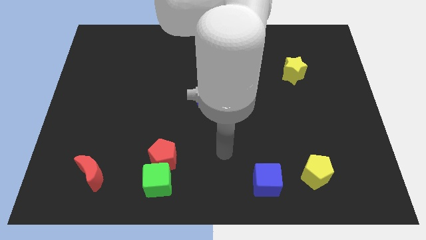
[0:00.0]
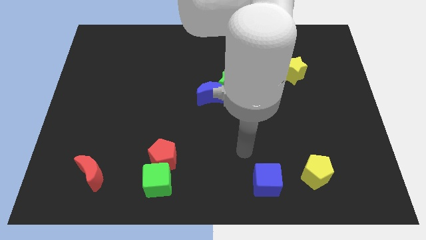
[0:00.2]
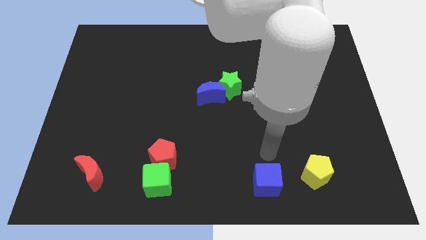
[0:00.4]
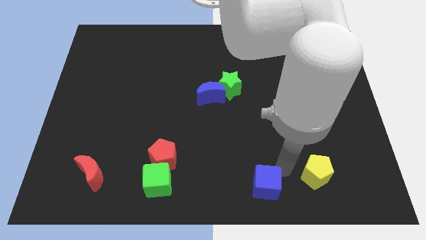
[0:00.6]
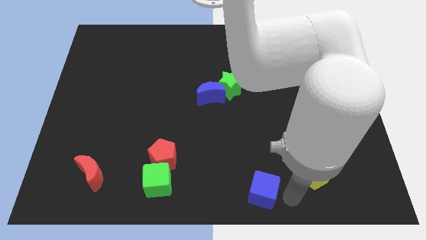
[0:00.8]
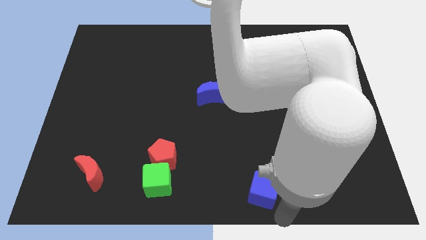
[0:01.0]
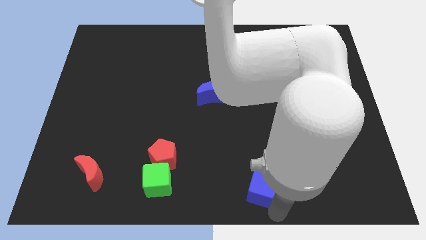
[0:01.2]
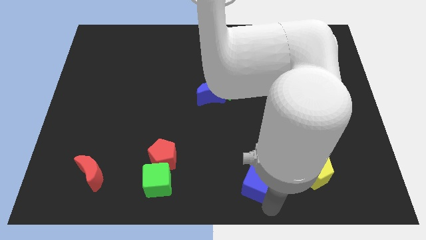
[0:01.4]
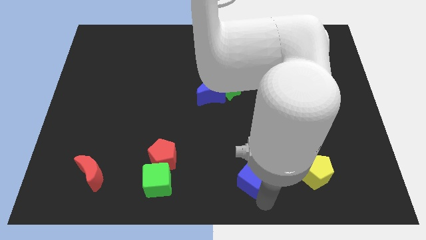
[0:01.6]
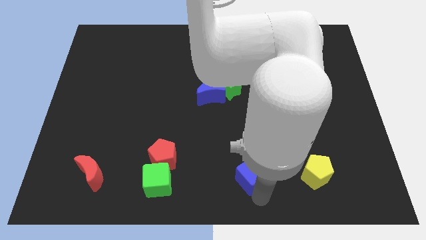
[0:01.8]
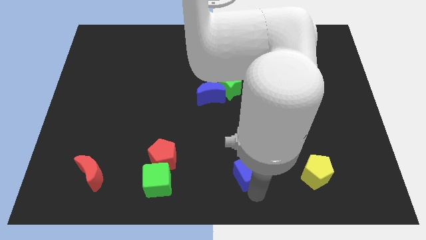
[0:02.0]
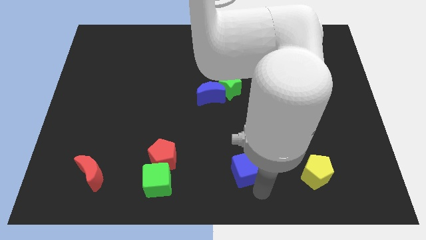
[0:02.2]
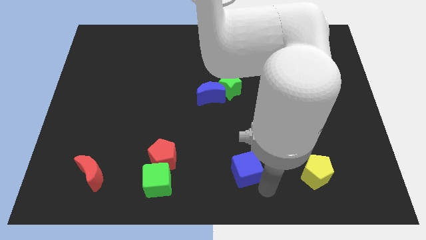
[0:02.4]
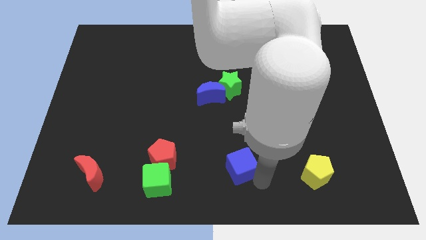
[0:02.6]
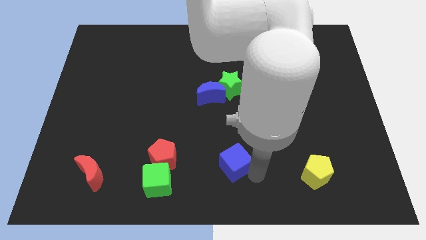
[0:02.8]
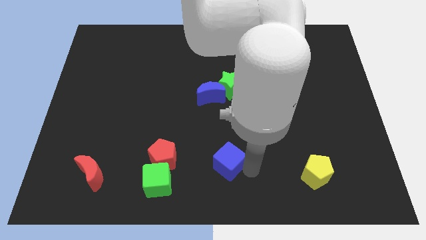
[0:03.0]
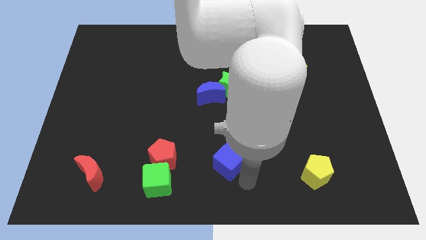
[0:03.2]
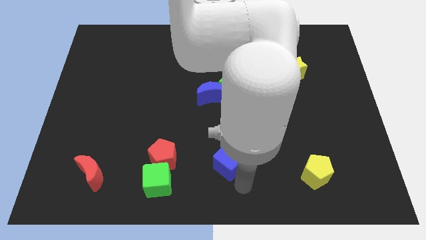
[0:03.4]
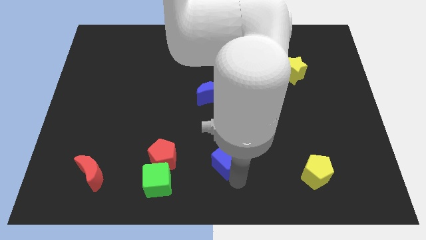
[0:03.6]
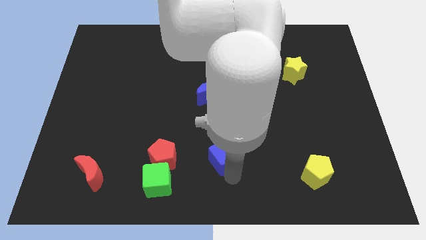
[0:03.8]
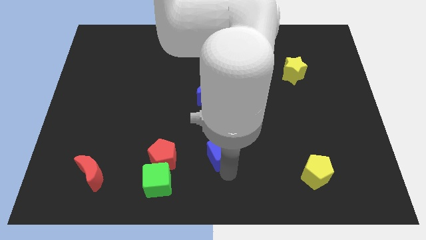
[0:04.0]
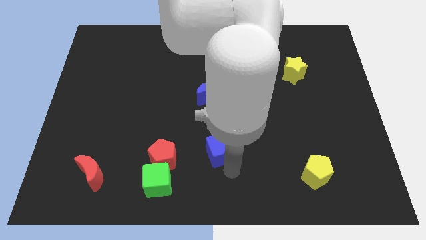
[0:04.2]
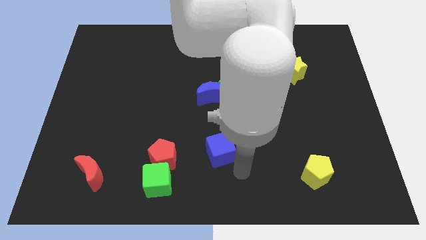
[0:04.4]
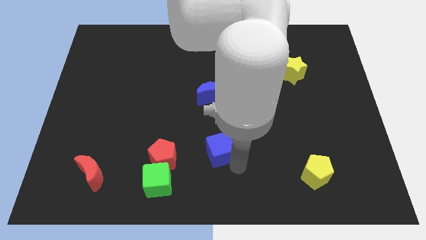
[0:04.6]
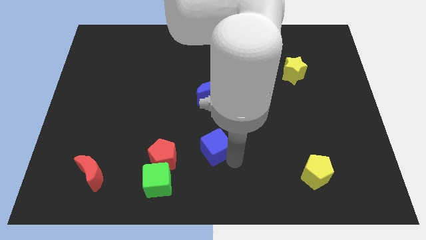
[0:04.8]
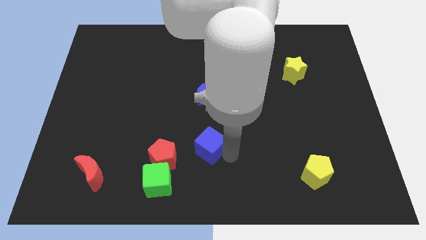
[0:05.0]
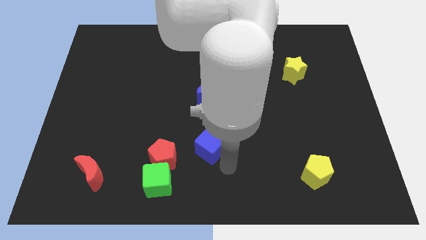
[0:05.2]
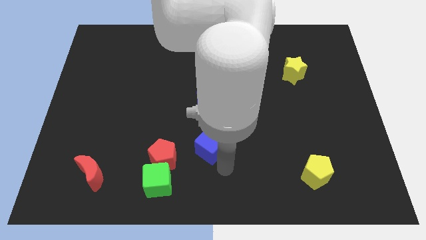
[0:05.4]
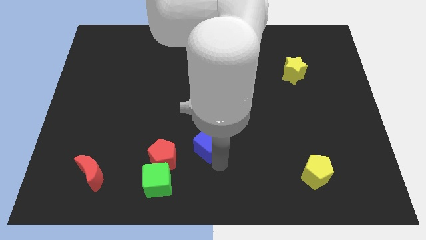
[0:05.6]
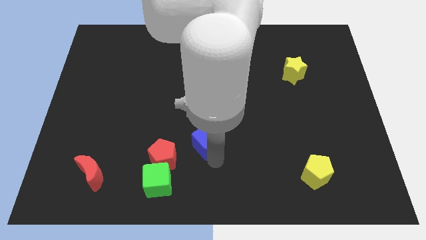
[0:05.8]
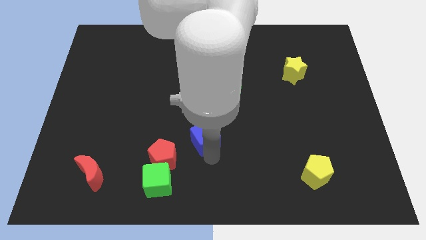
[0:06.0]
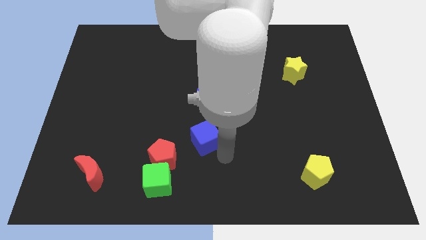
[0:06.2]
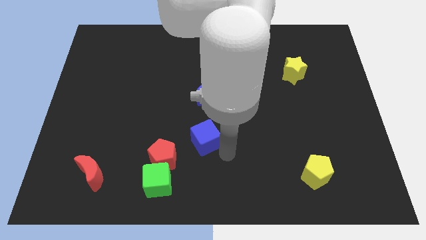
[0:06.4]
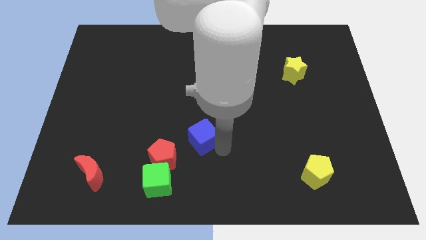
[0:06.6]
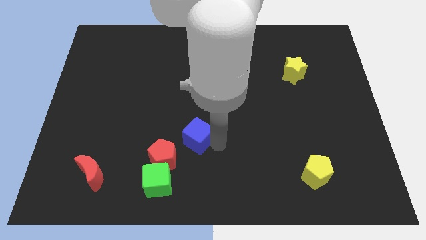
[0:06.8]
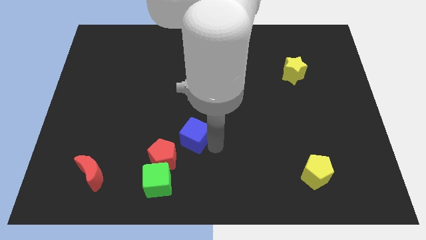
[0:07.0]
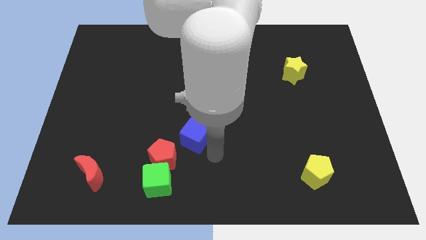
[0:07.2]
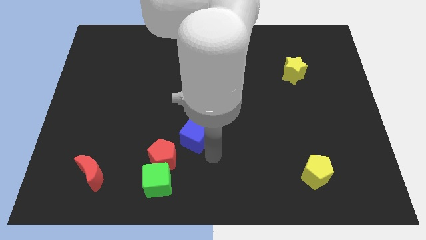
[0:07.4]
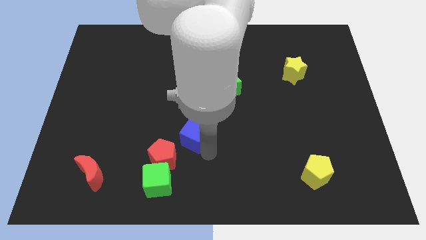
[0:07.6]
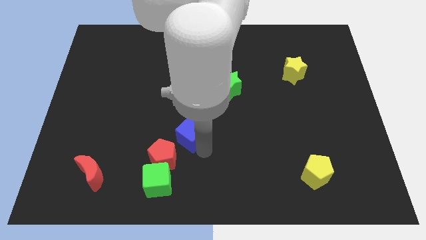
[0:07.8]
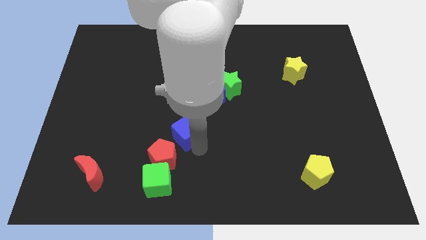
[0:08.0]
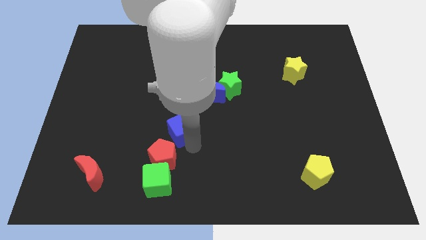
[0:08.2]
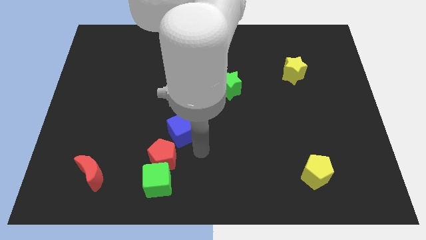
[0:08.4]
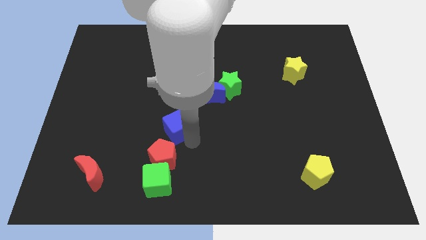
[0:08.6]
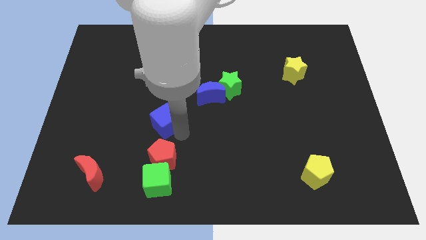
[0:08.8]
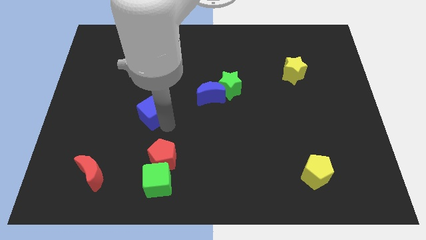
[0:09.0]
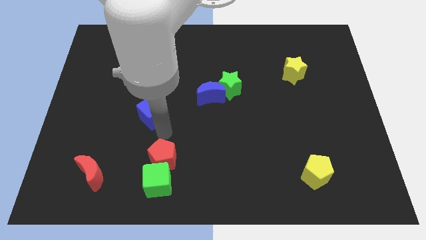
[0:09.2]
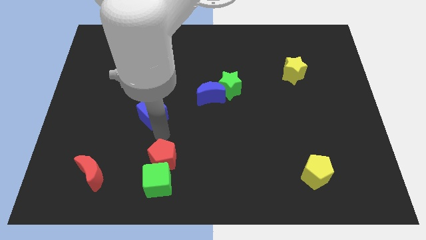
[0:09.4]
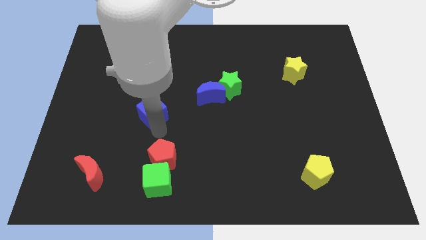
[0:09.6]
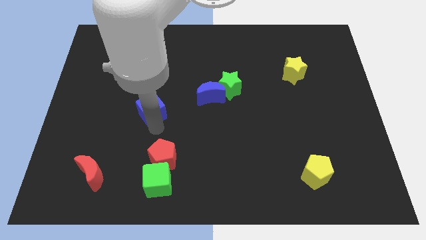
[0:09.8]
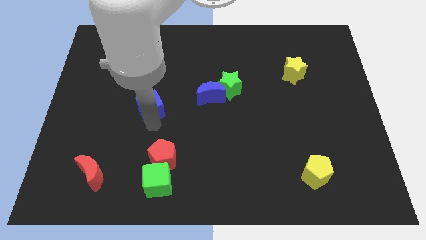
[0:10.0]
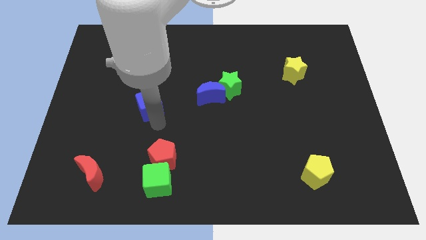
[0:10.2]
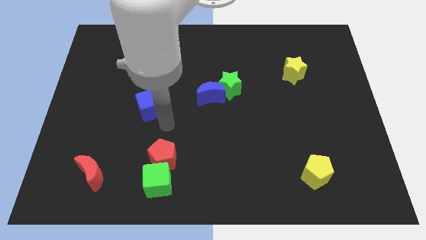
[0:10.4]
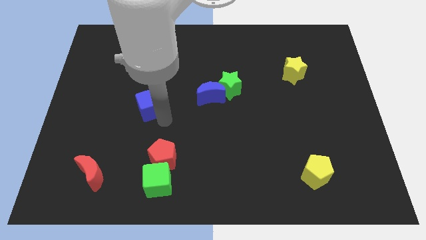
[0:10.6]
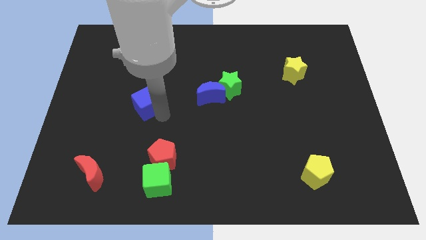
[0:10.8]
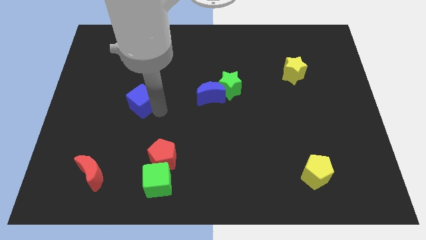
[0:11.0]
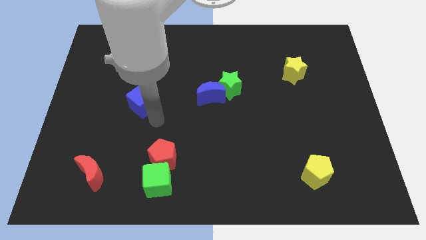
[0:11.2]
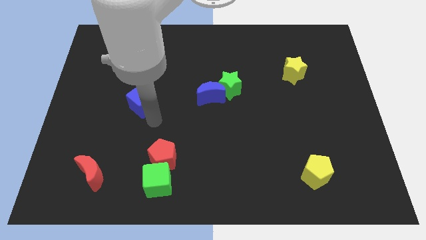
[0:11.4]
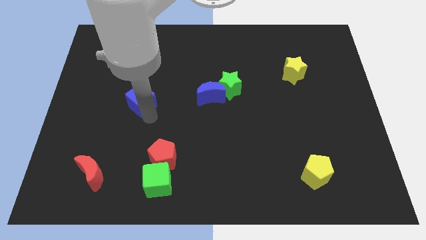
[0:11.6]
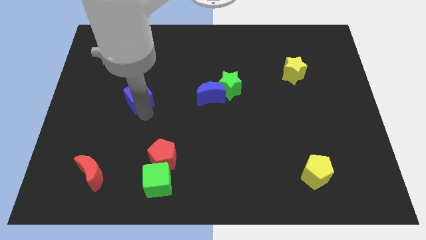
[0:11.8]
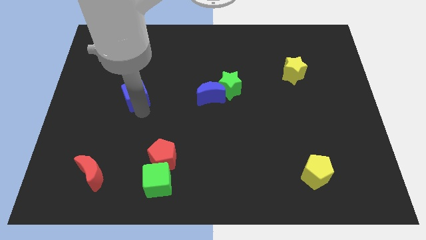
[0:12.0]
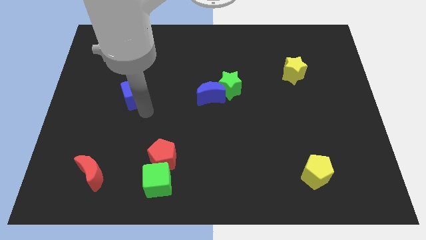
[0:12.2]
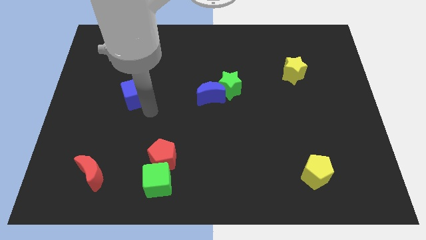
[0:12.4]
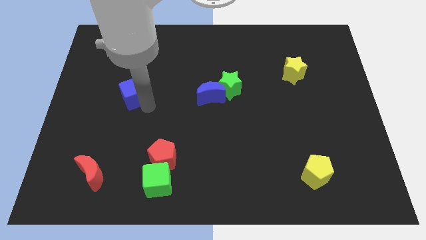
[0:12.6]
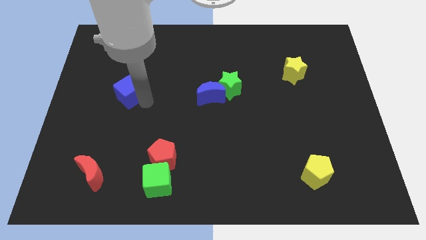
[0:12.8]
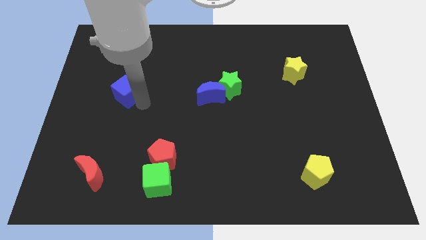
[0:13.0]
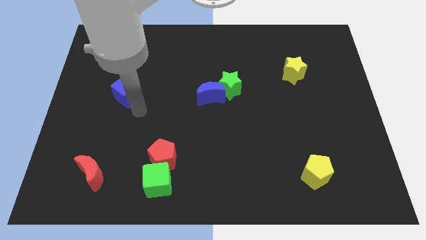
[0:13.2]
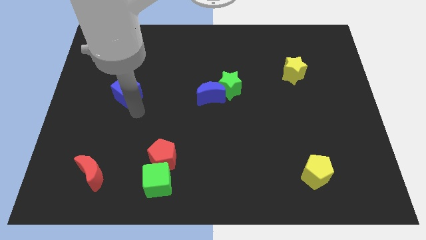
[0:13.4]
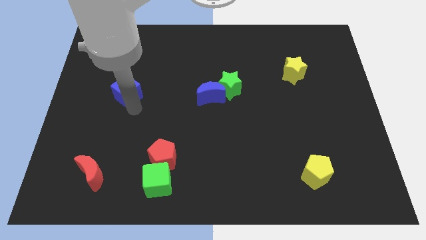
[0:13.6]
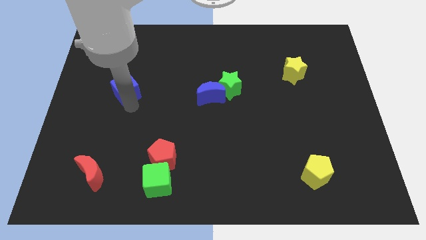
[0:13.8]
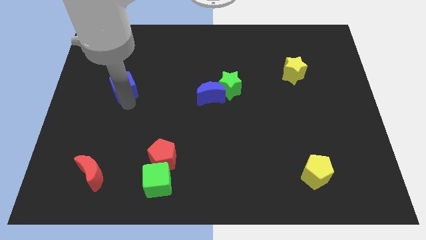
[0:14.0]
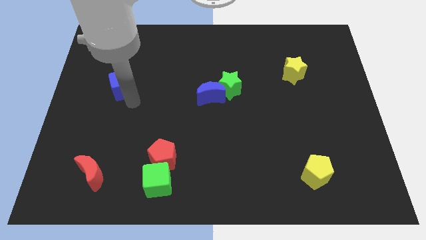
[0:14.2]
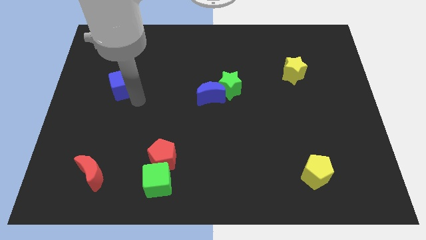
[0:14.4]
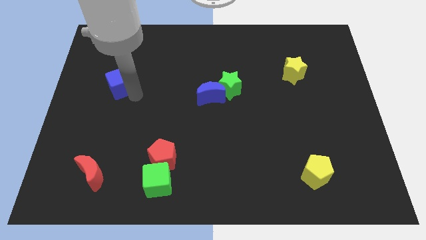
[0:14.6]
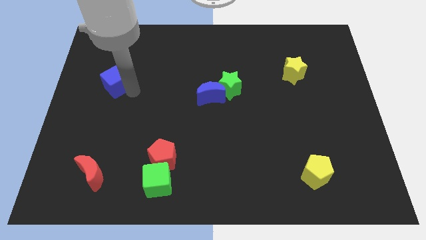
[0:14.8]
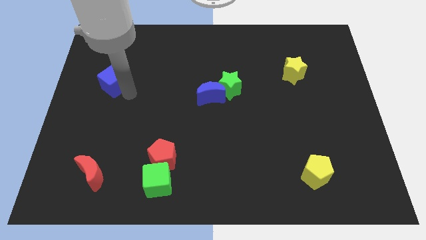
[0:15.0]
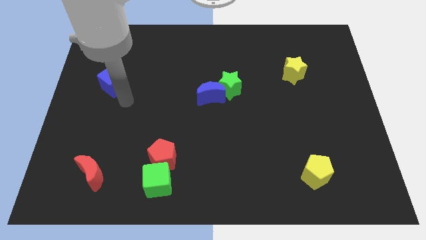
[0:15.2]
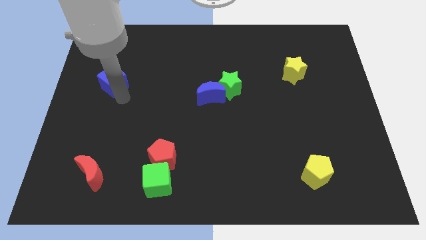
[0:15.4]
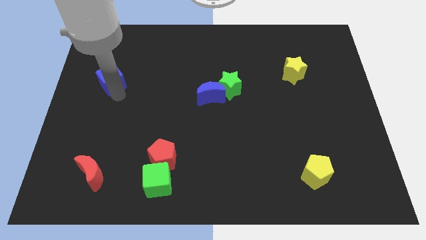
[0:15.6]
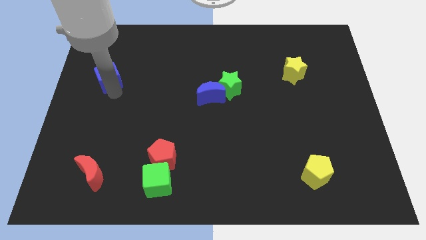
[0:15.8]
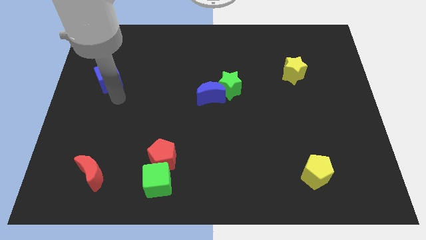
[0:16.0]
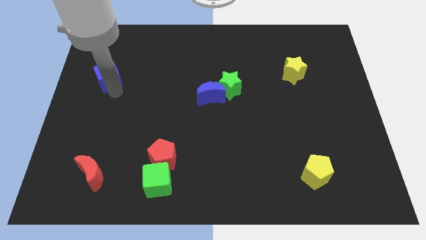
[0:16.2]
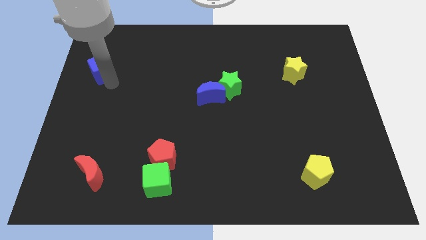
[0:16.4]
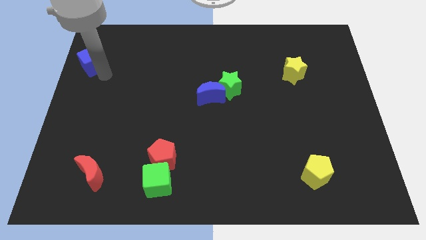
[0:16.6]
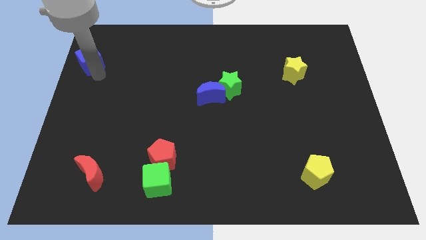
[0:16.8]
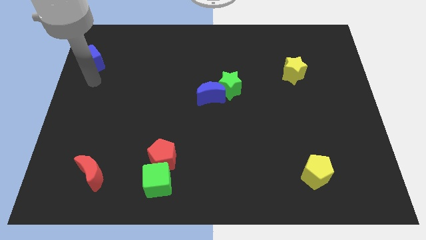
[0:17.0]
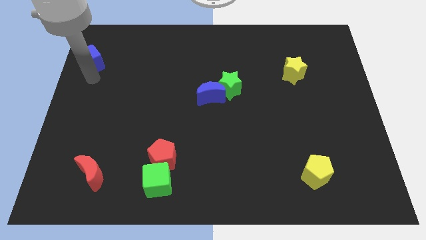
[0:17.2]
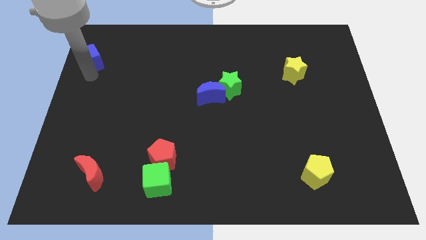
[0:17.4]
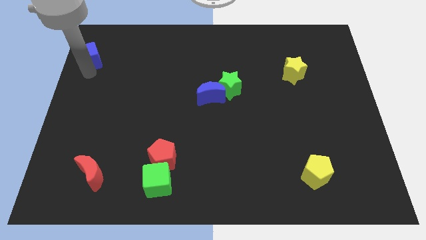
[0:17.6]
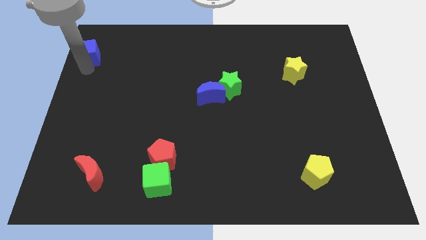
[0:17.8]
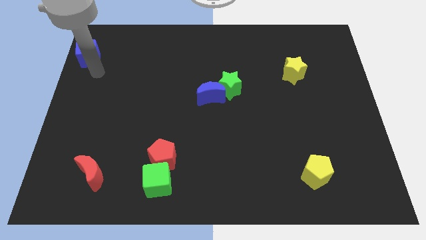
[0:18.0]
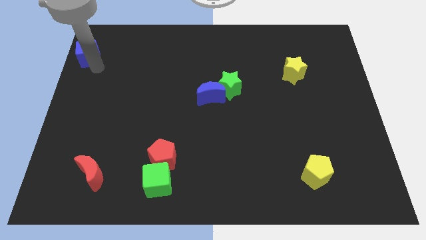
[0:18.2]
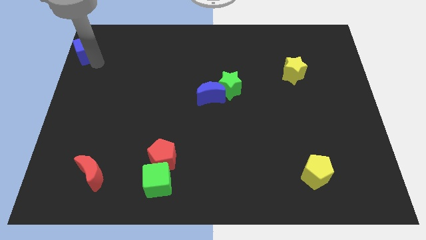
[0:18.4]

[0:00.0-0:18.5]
push the blue cube to the upper left corner
